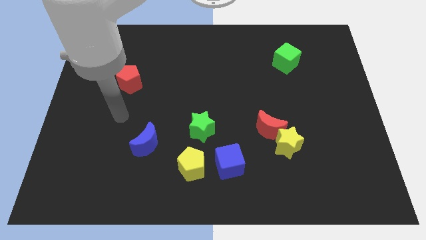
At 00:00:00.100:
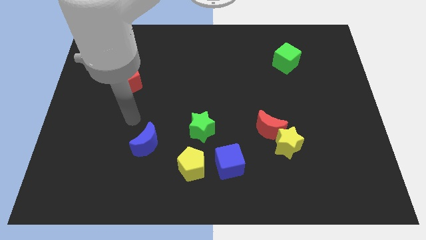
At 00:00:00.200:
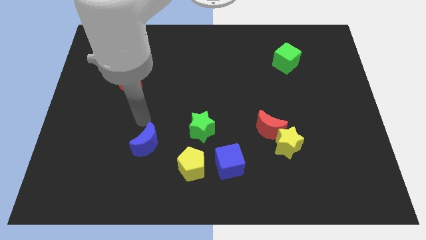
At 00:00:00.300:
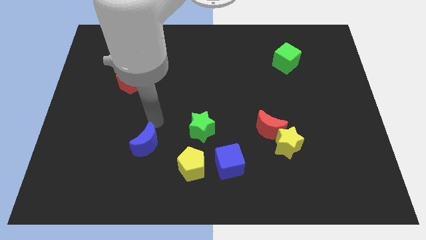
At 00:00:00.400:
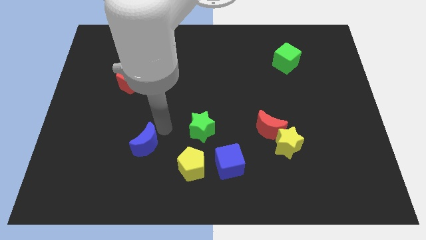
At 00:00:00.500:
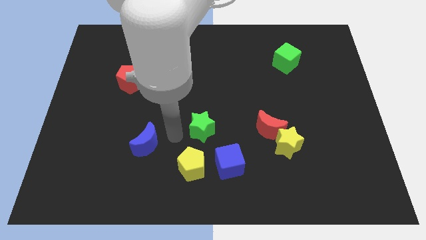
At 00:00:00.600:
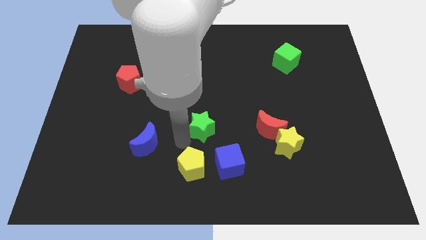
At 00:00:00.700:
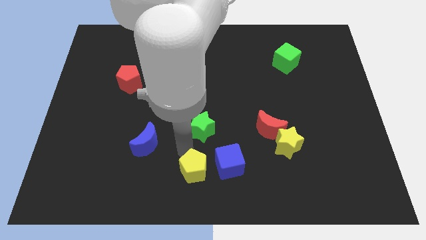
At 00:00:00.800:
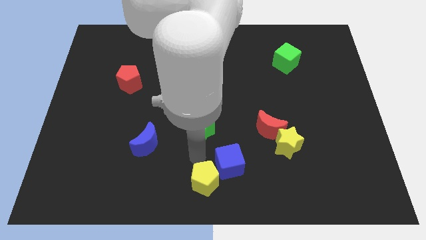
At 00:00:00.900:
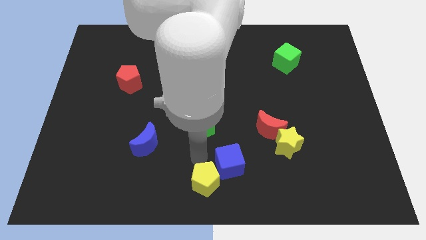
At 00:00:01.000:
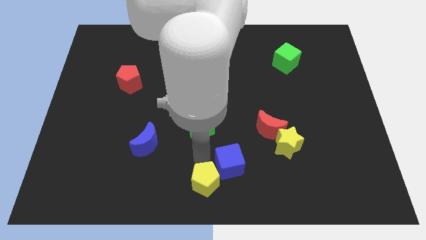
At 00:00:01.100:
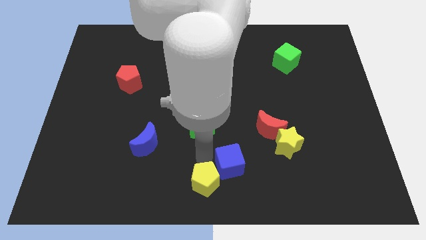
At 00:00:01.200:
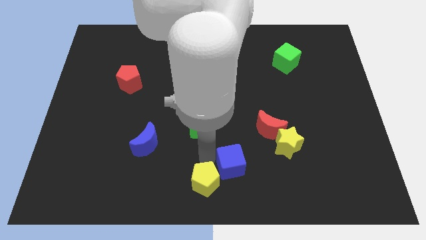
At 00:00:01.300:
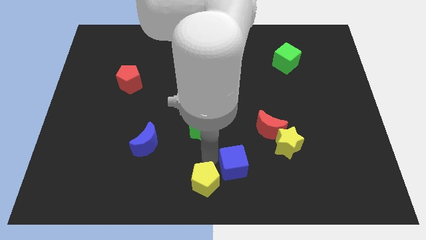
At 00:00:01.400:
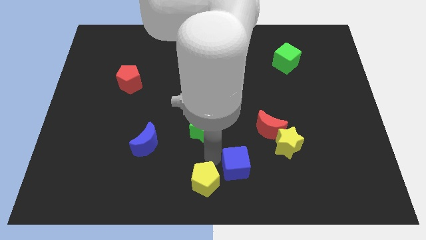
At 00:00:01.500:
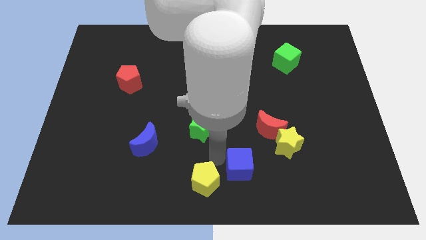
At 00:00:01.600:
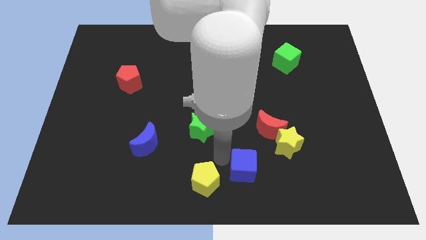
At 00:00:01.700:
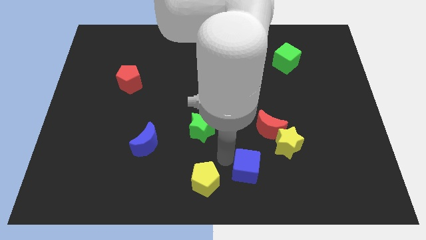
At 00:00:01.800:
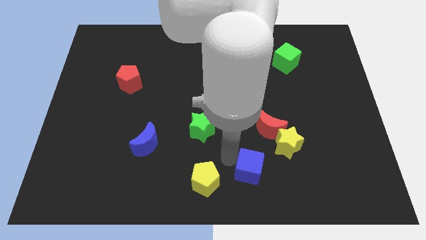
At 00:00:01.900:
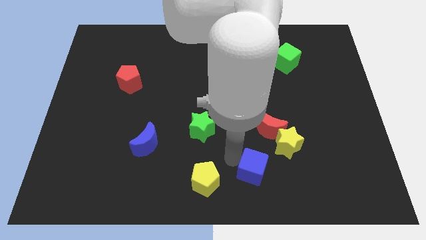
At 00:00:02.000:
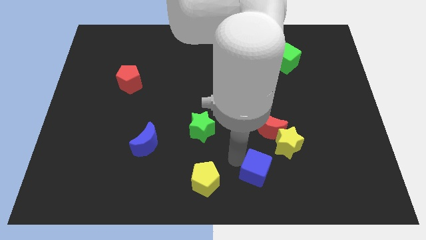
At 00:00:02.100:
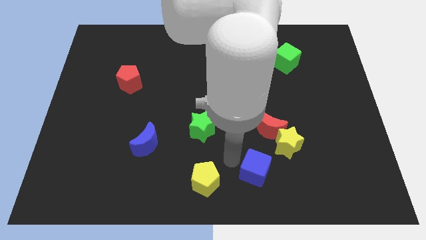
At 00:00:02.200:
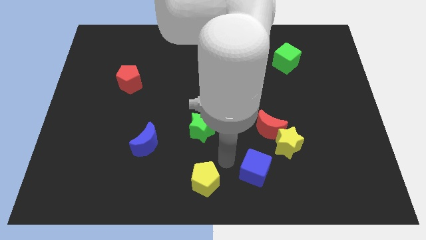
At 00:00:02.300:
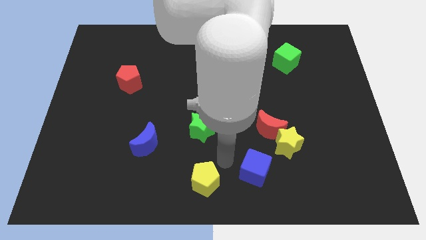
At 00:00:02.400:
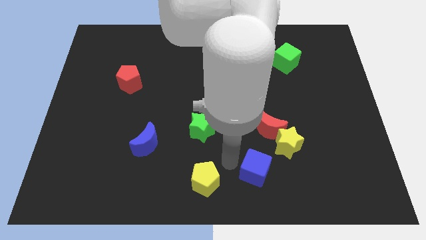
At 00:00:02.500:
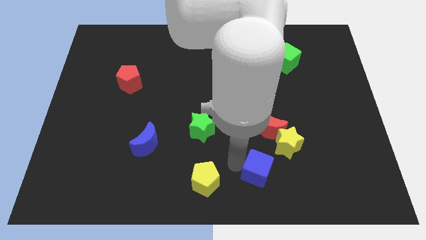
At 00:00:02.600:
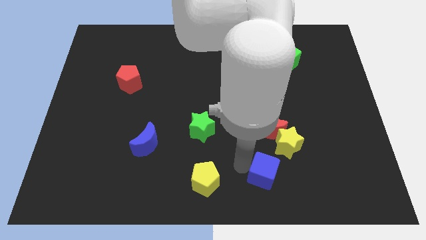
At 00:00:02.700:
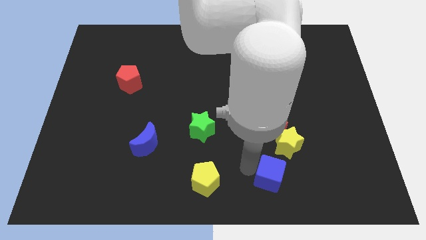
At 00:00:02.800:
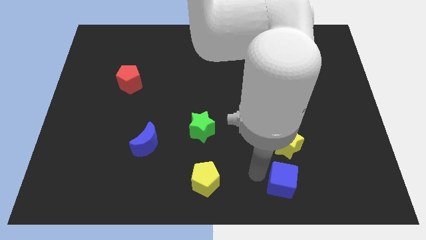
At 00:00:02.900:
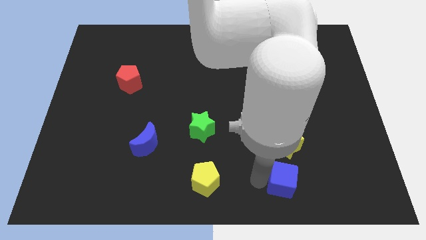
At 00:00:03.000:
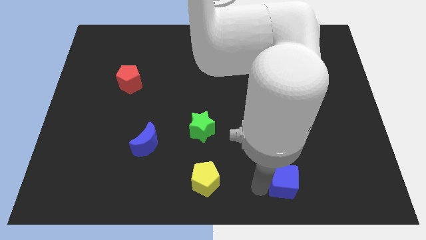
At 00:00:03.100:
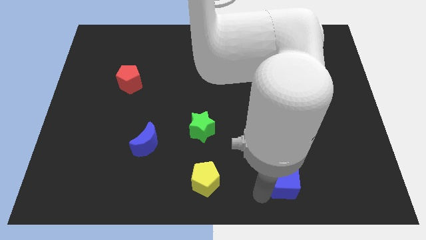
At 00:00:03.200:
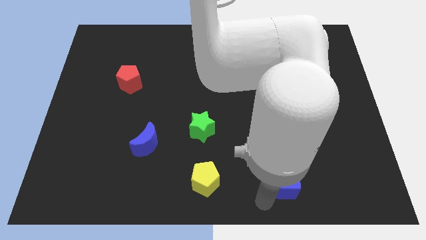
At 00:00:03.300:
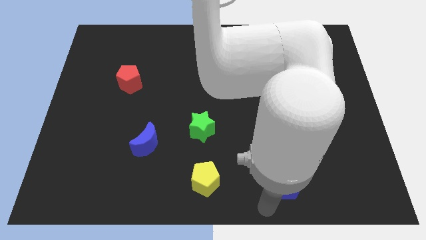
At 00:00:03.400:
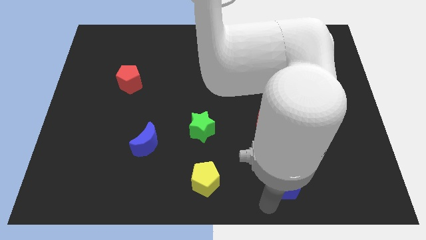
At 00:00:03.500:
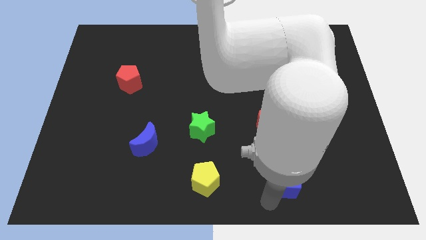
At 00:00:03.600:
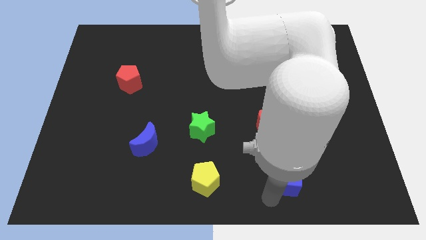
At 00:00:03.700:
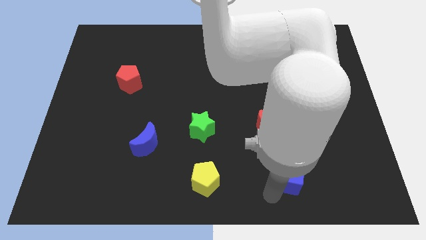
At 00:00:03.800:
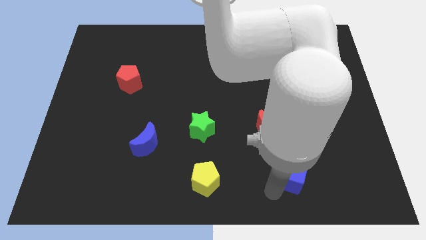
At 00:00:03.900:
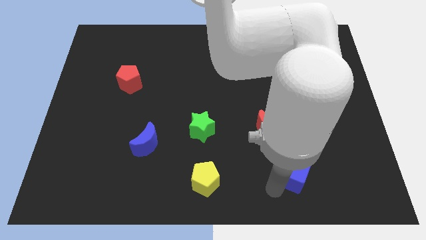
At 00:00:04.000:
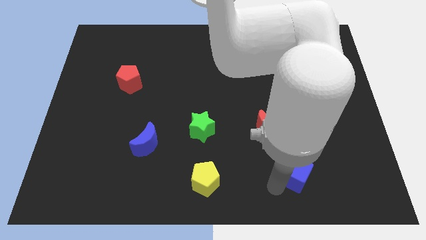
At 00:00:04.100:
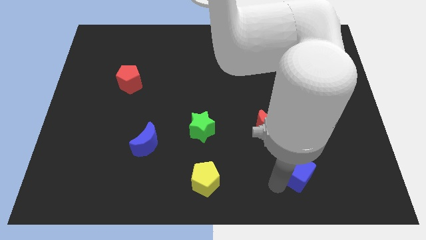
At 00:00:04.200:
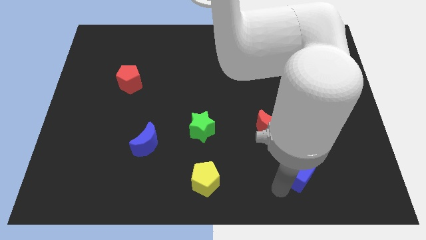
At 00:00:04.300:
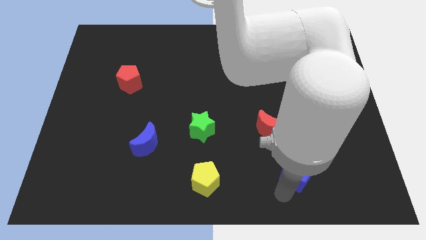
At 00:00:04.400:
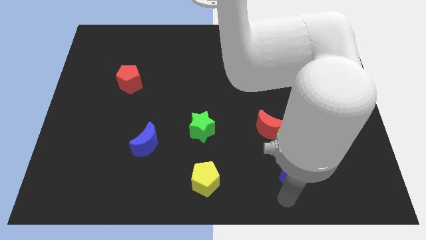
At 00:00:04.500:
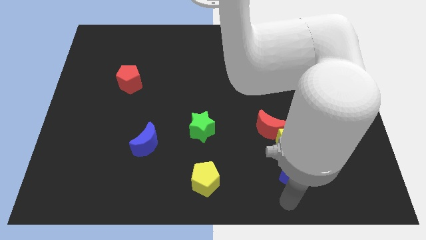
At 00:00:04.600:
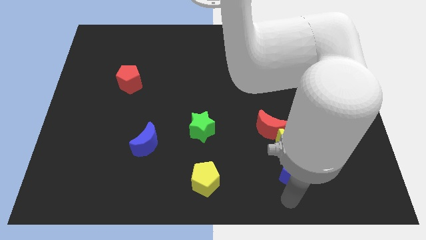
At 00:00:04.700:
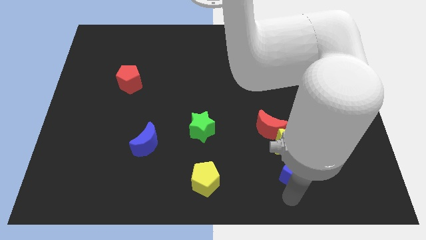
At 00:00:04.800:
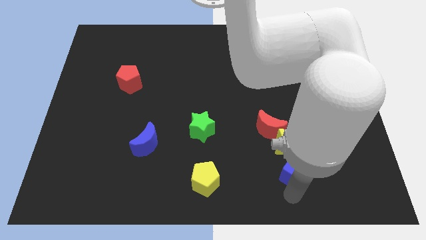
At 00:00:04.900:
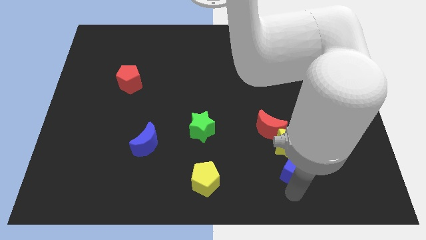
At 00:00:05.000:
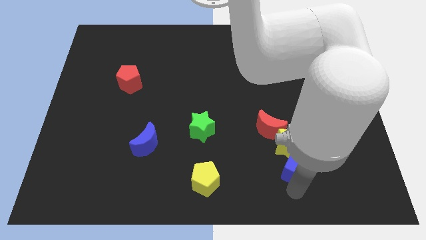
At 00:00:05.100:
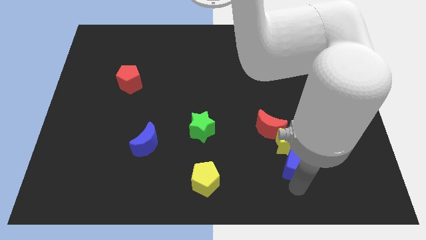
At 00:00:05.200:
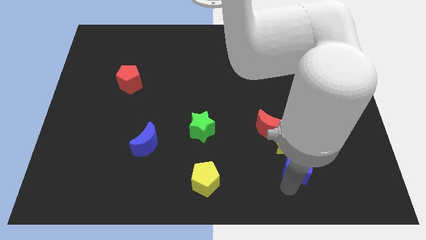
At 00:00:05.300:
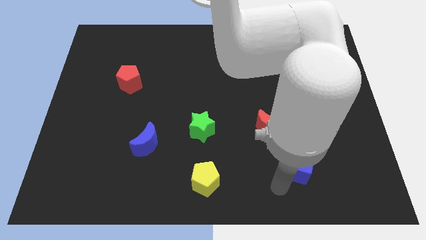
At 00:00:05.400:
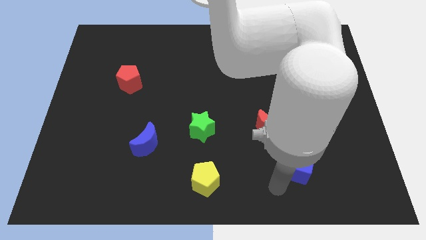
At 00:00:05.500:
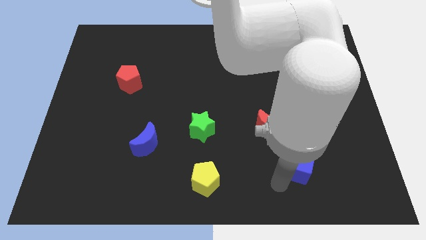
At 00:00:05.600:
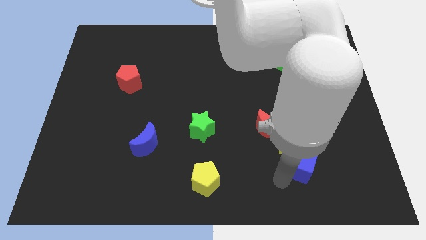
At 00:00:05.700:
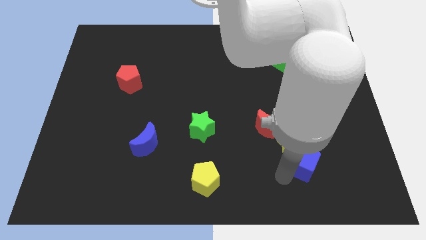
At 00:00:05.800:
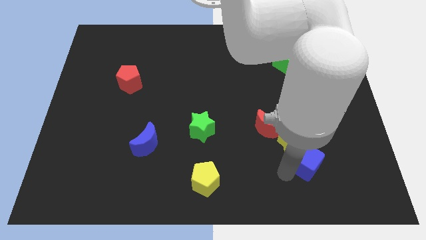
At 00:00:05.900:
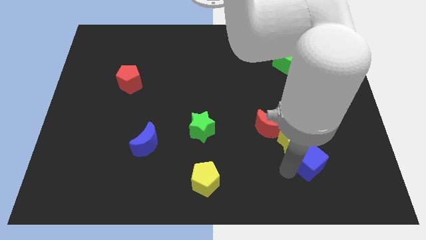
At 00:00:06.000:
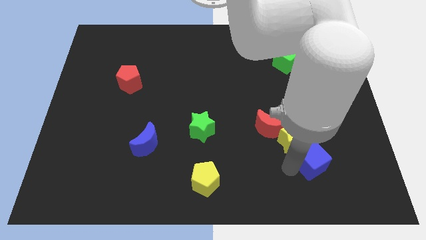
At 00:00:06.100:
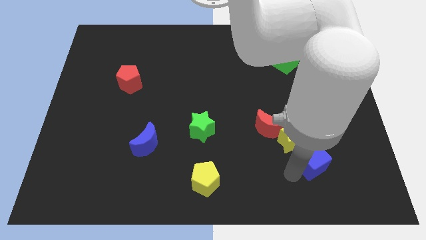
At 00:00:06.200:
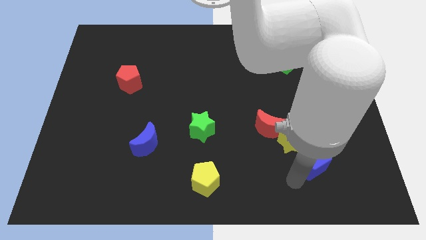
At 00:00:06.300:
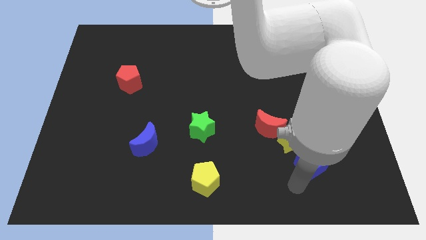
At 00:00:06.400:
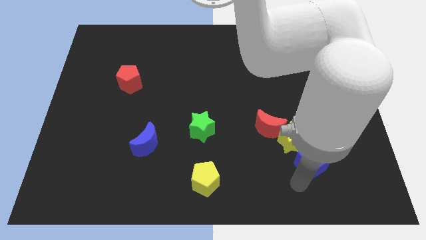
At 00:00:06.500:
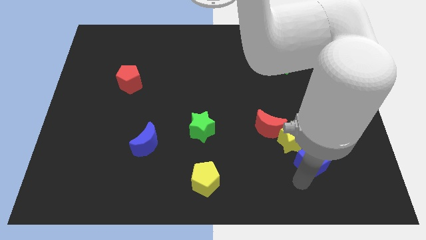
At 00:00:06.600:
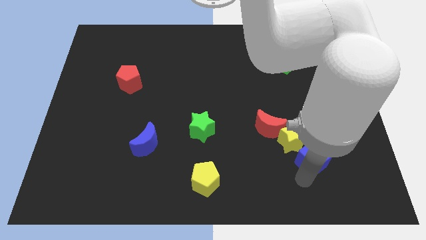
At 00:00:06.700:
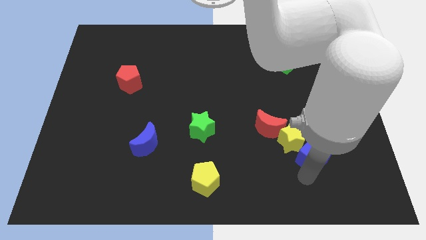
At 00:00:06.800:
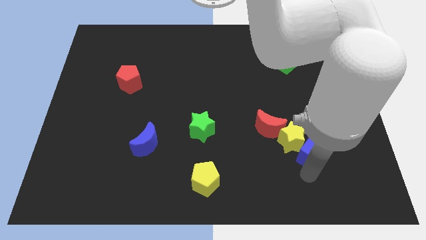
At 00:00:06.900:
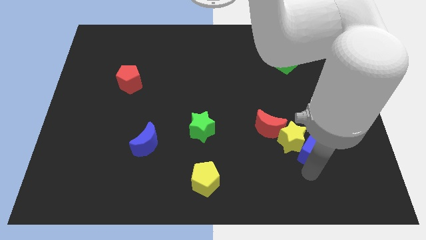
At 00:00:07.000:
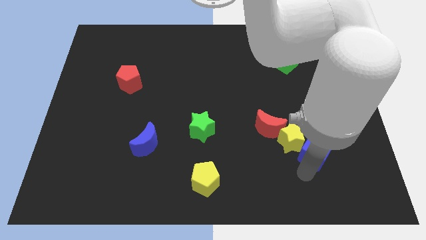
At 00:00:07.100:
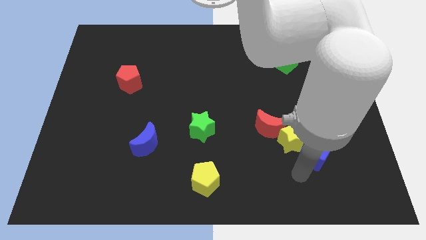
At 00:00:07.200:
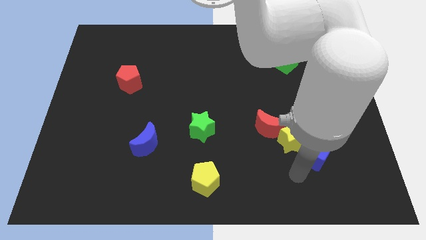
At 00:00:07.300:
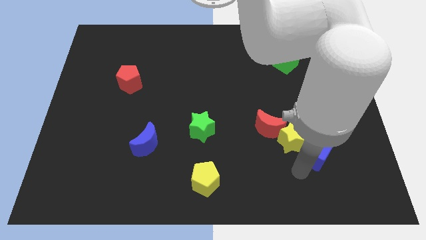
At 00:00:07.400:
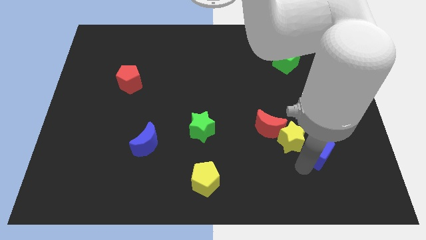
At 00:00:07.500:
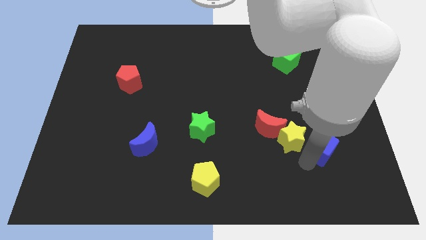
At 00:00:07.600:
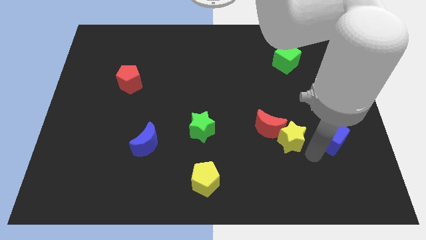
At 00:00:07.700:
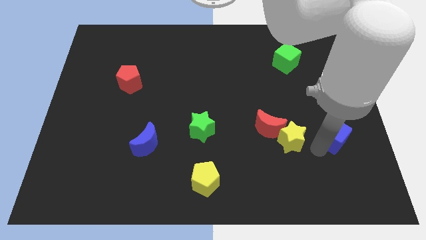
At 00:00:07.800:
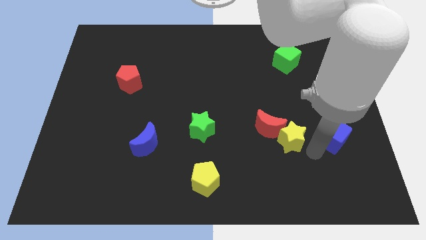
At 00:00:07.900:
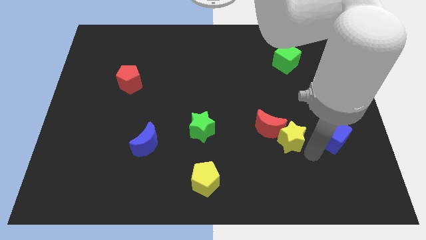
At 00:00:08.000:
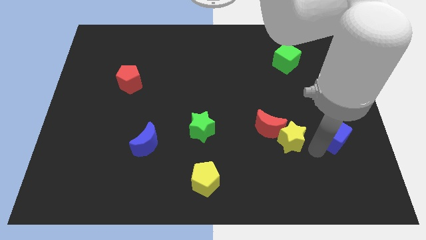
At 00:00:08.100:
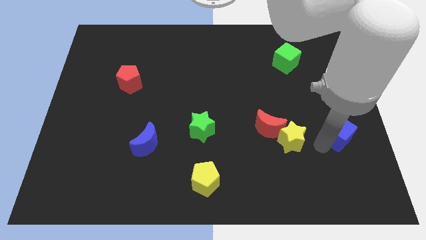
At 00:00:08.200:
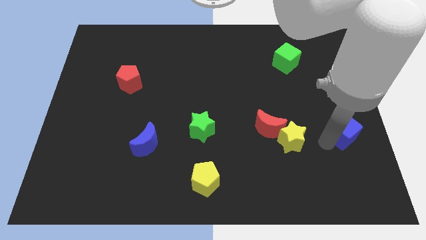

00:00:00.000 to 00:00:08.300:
put the blue cube to the center right
